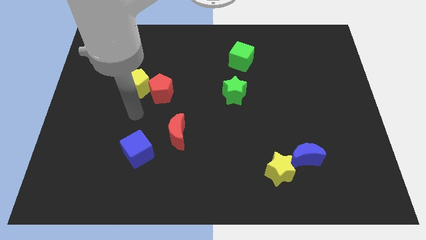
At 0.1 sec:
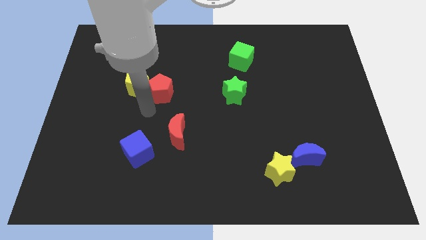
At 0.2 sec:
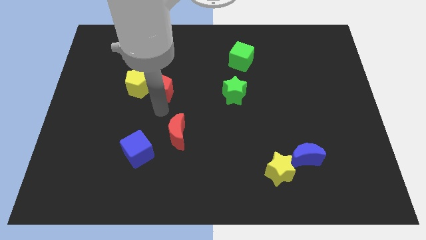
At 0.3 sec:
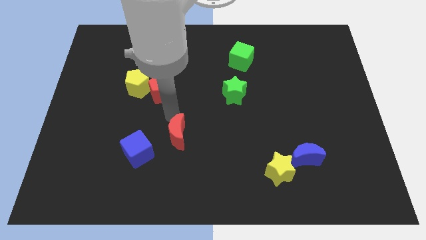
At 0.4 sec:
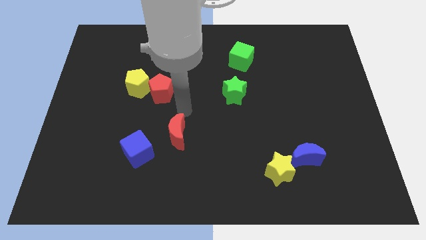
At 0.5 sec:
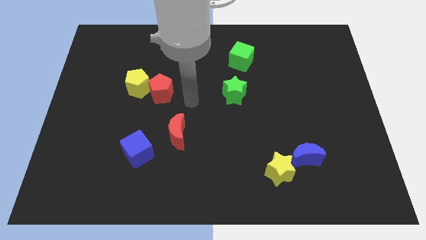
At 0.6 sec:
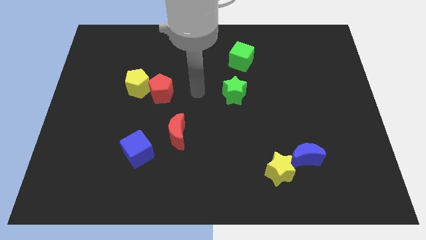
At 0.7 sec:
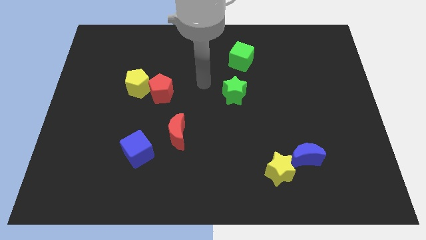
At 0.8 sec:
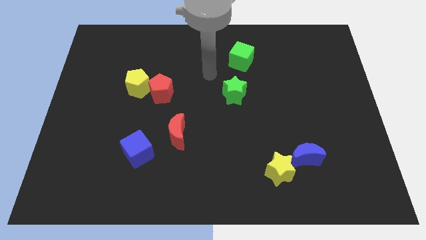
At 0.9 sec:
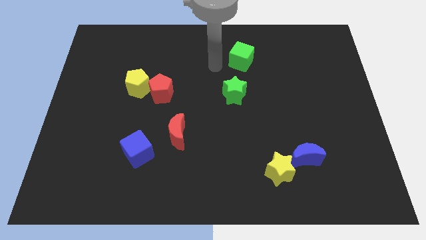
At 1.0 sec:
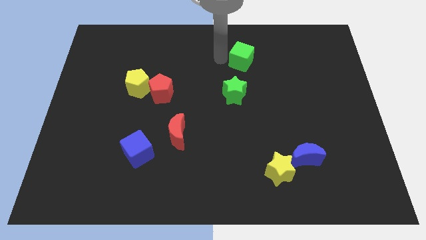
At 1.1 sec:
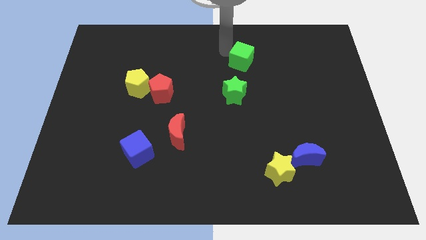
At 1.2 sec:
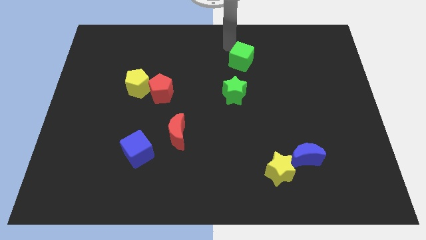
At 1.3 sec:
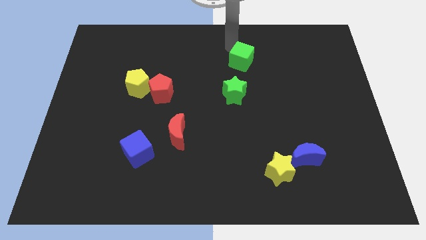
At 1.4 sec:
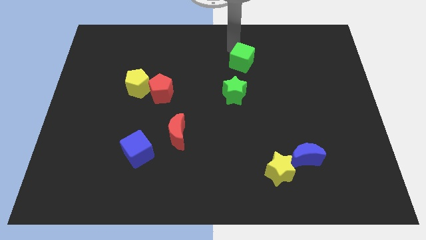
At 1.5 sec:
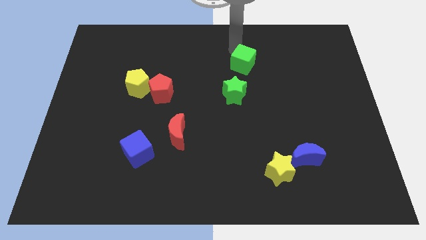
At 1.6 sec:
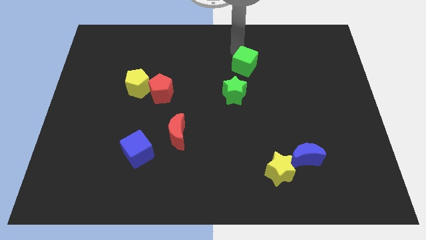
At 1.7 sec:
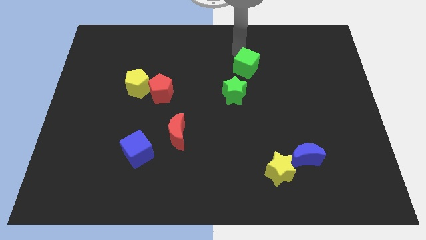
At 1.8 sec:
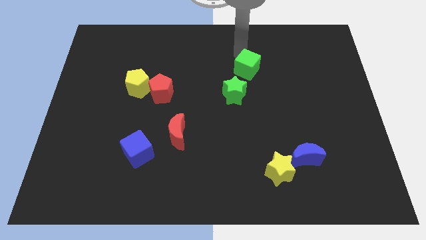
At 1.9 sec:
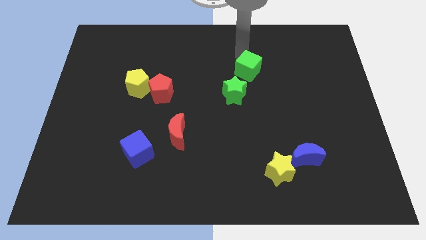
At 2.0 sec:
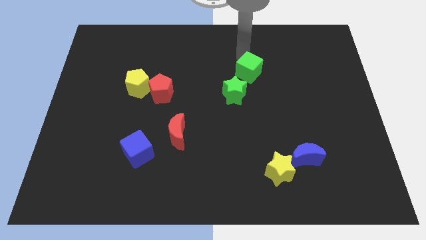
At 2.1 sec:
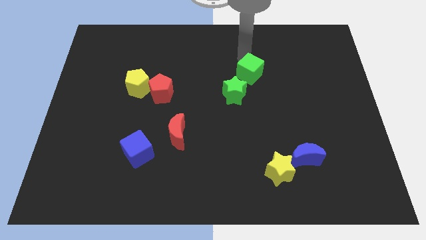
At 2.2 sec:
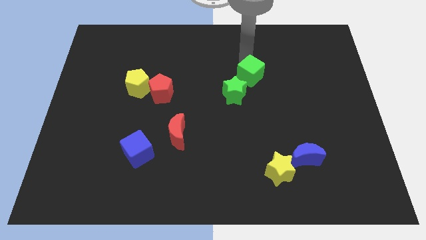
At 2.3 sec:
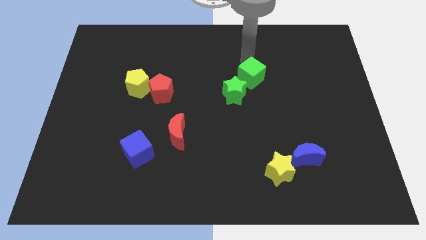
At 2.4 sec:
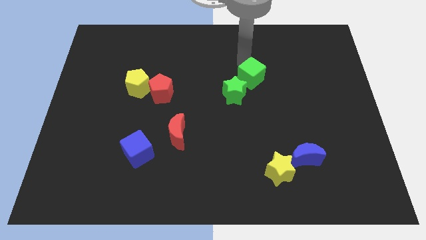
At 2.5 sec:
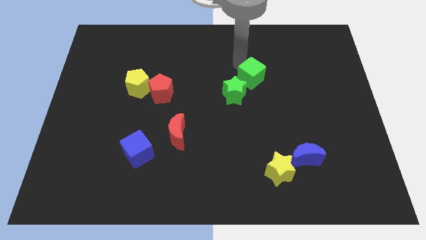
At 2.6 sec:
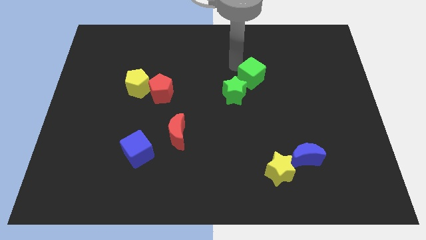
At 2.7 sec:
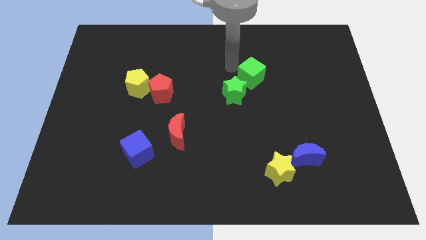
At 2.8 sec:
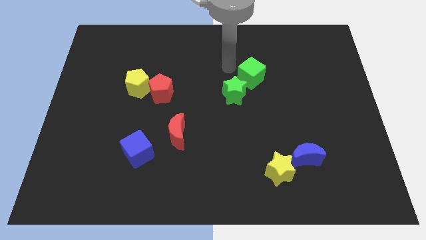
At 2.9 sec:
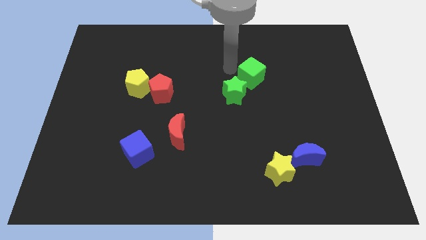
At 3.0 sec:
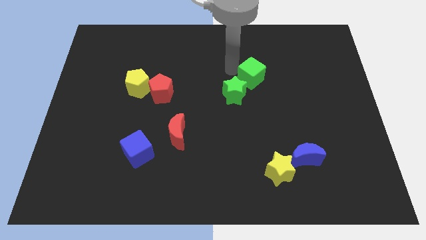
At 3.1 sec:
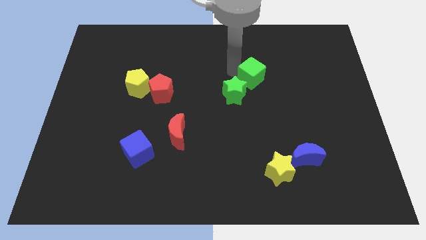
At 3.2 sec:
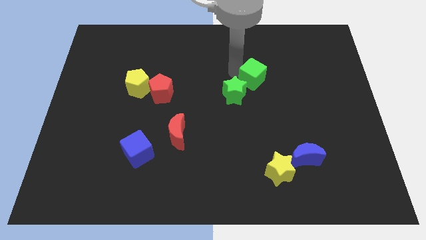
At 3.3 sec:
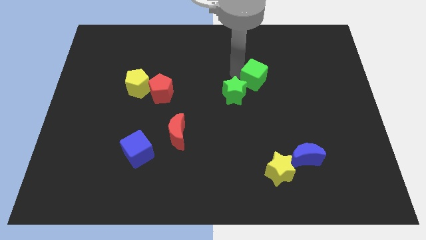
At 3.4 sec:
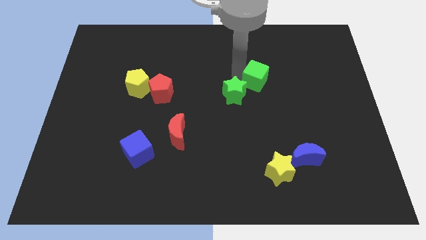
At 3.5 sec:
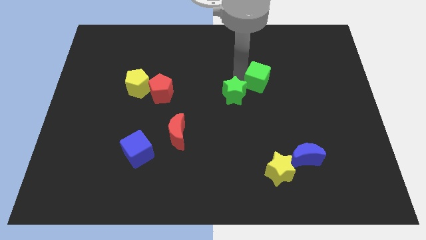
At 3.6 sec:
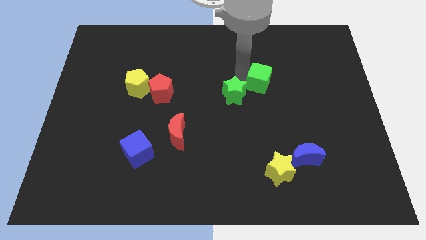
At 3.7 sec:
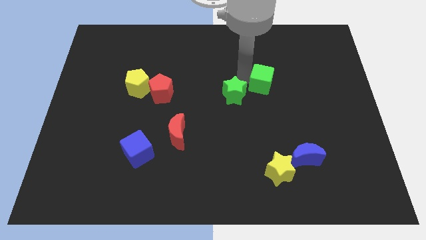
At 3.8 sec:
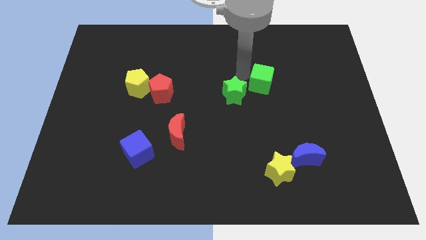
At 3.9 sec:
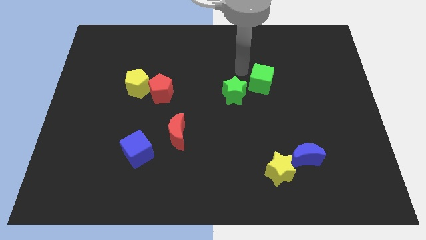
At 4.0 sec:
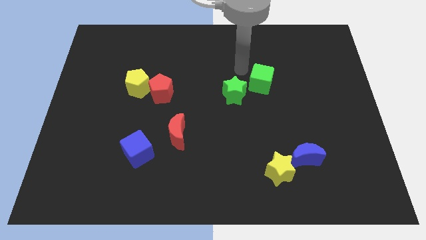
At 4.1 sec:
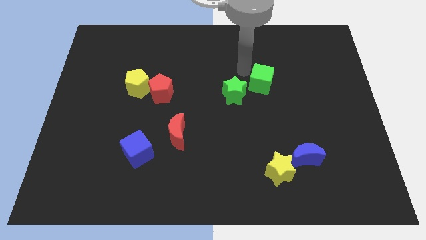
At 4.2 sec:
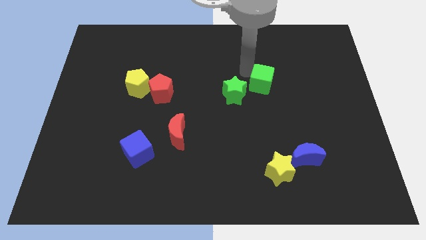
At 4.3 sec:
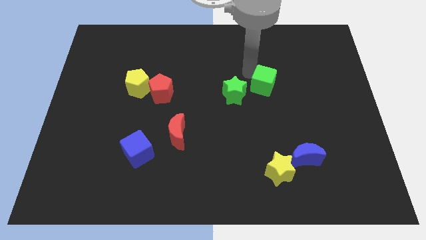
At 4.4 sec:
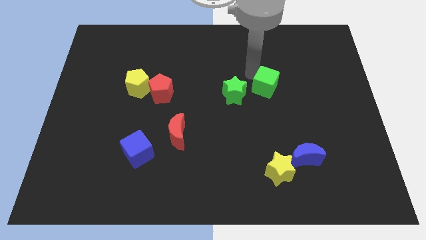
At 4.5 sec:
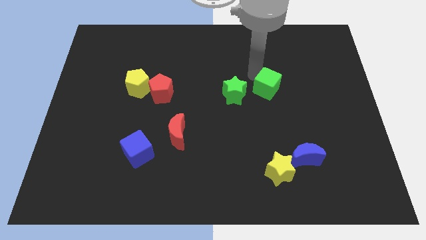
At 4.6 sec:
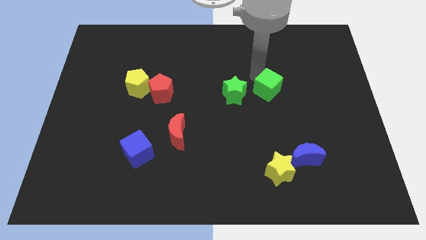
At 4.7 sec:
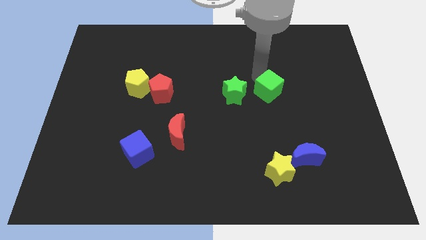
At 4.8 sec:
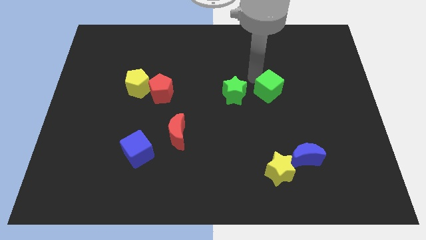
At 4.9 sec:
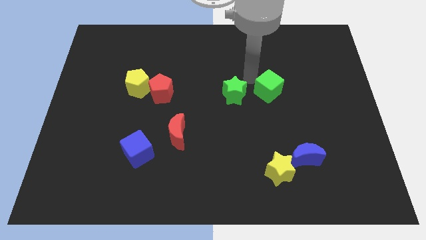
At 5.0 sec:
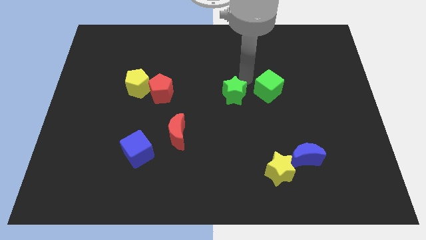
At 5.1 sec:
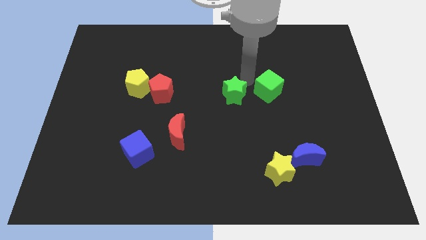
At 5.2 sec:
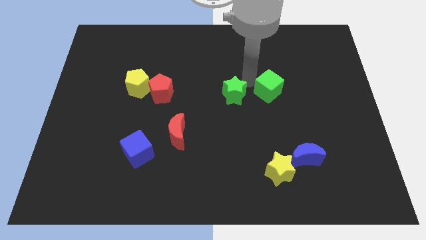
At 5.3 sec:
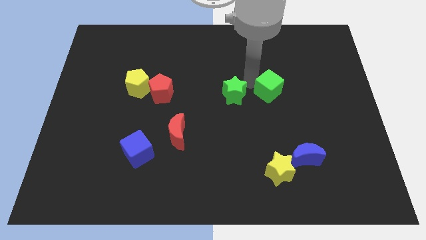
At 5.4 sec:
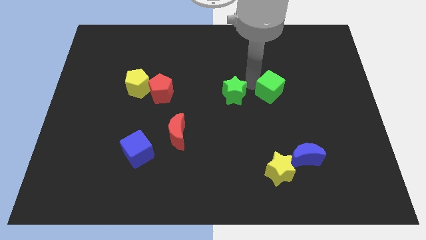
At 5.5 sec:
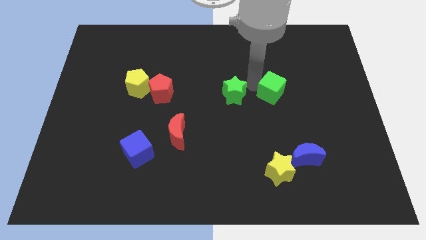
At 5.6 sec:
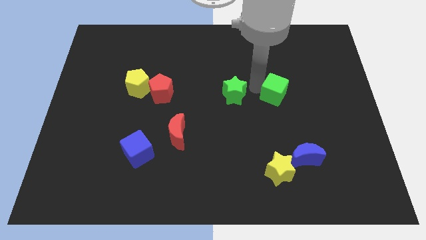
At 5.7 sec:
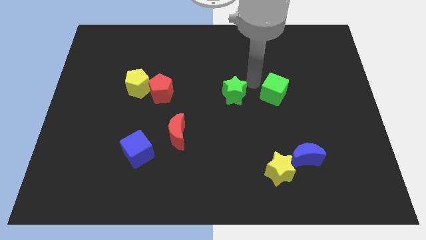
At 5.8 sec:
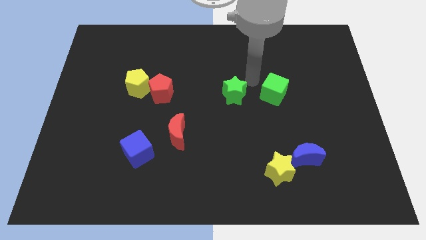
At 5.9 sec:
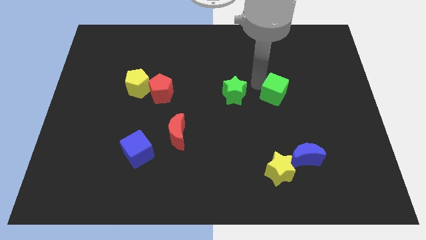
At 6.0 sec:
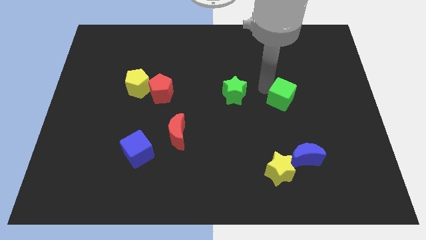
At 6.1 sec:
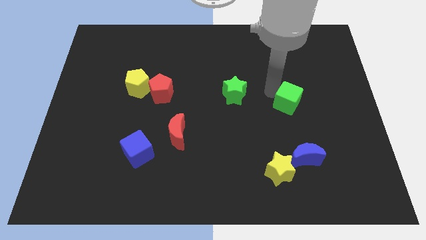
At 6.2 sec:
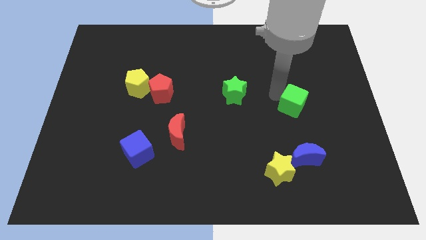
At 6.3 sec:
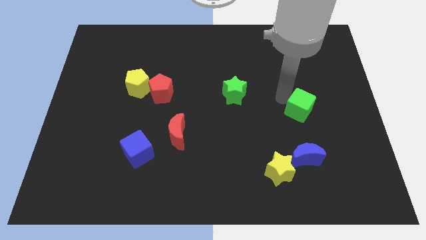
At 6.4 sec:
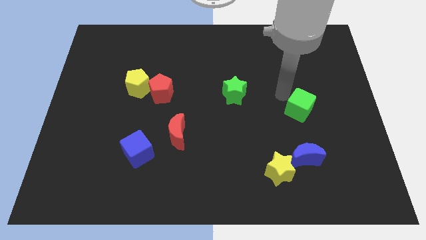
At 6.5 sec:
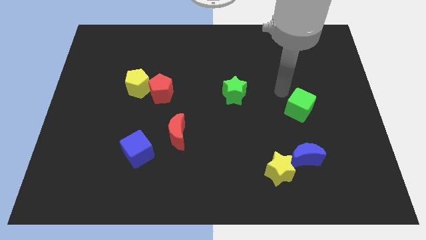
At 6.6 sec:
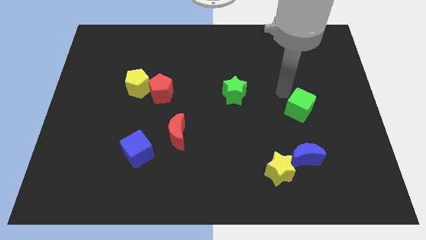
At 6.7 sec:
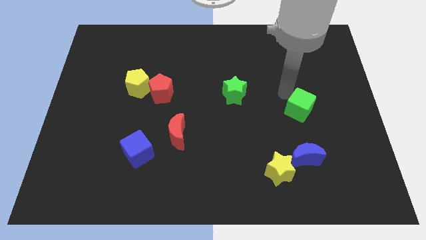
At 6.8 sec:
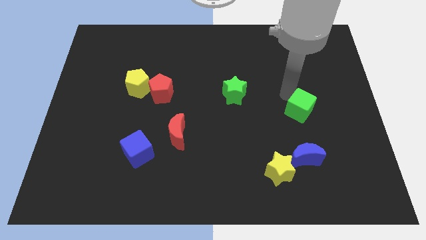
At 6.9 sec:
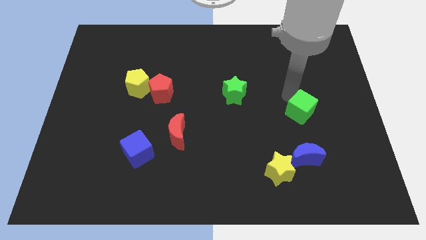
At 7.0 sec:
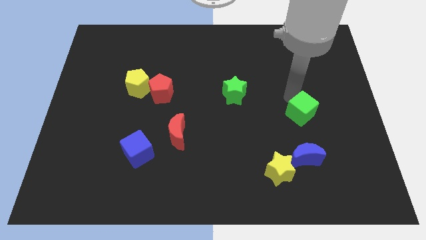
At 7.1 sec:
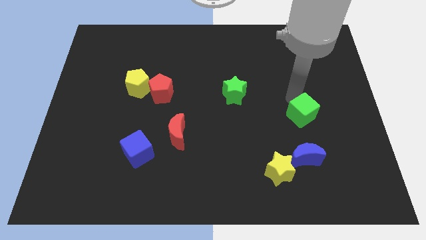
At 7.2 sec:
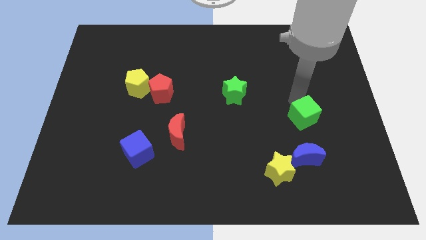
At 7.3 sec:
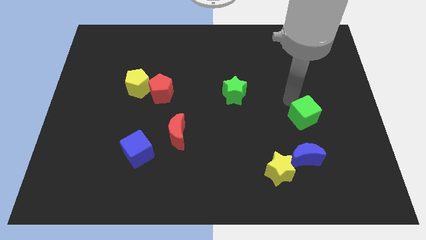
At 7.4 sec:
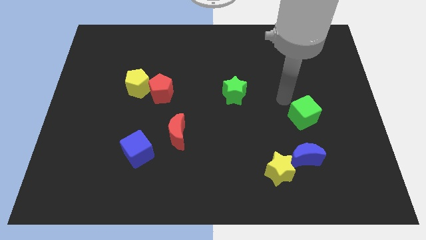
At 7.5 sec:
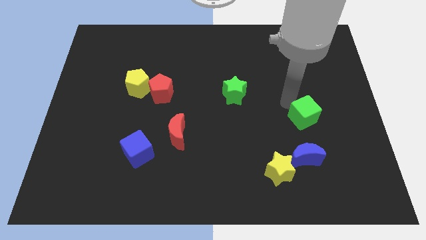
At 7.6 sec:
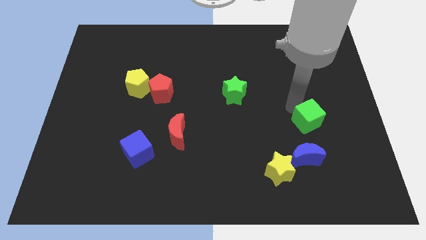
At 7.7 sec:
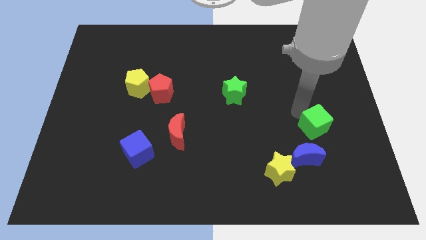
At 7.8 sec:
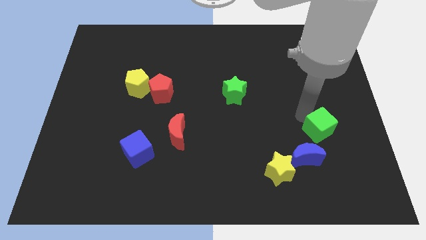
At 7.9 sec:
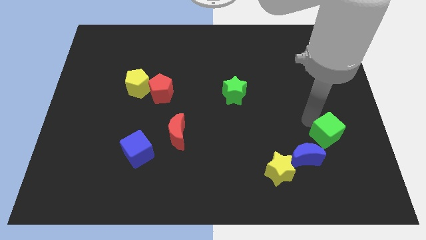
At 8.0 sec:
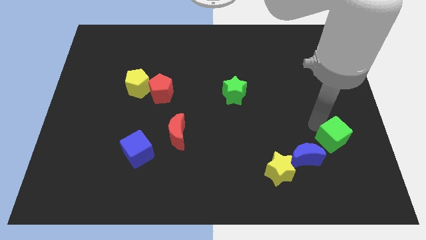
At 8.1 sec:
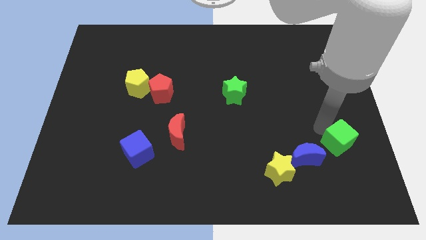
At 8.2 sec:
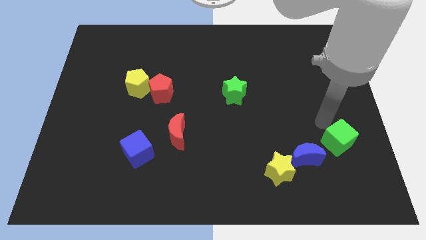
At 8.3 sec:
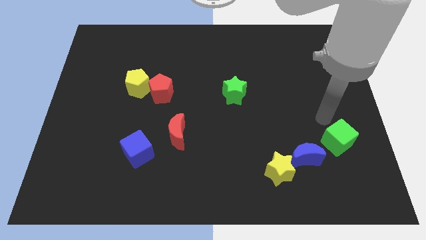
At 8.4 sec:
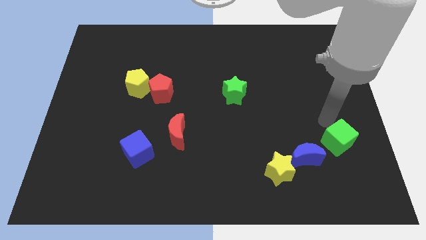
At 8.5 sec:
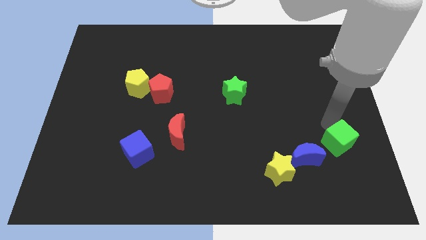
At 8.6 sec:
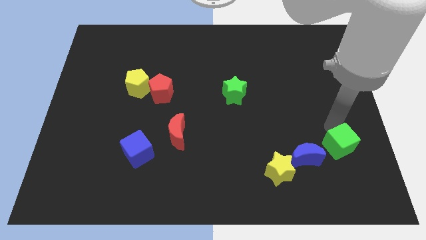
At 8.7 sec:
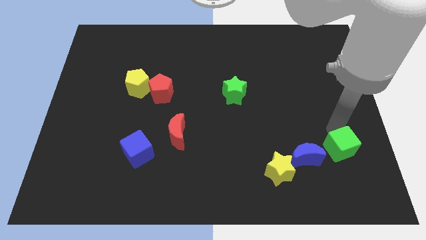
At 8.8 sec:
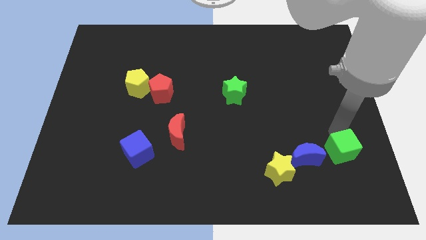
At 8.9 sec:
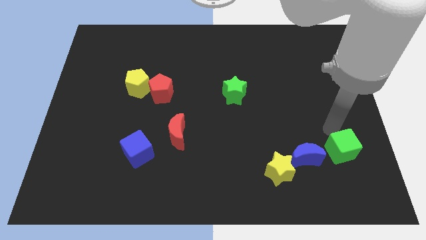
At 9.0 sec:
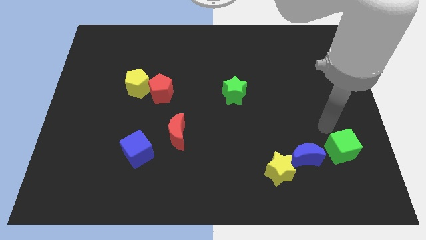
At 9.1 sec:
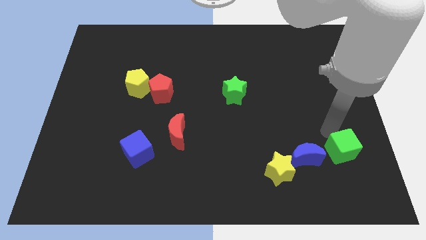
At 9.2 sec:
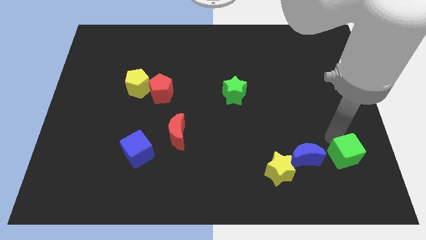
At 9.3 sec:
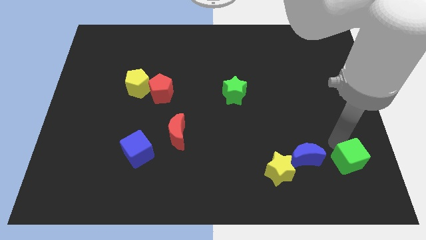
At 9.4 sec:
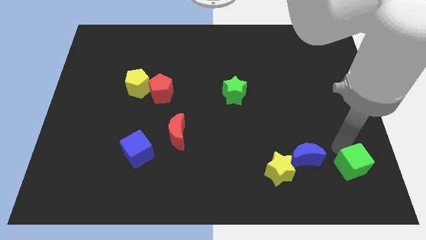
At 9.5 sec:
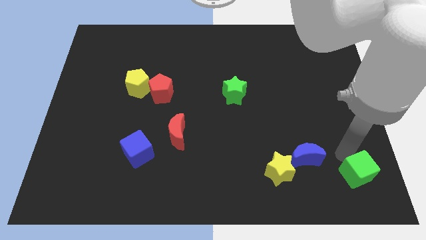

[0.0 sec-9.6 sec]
move the green cube to the bottom right
